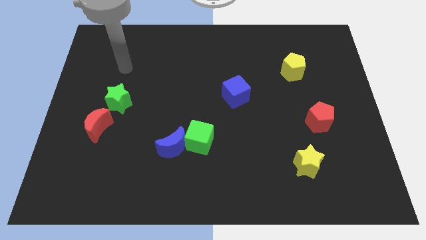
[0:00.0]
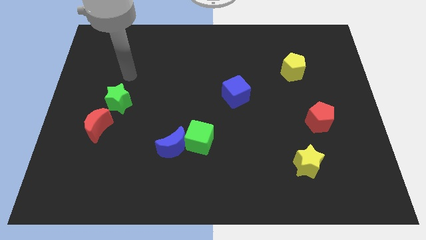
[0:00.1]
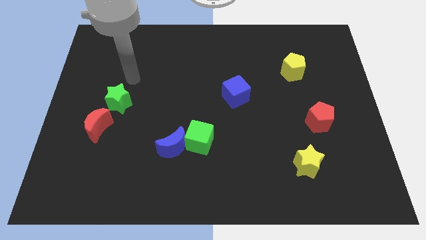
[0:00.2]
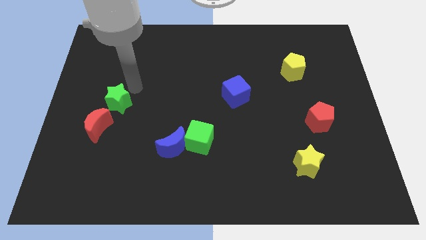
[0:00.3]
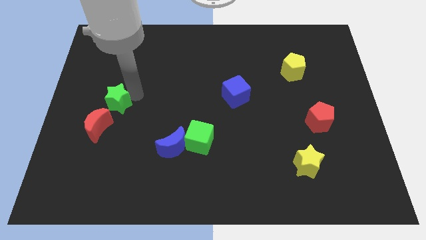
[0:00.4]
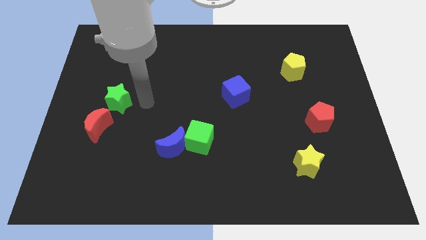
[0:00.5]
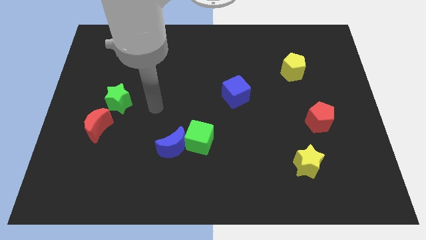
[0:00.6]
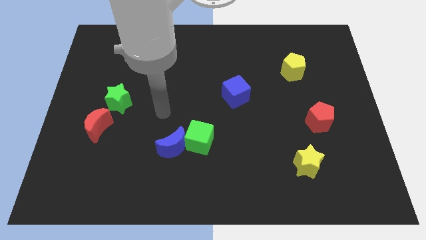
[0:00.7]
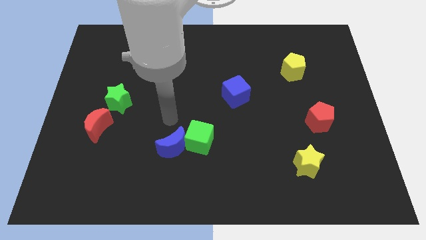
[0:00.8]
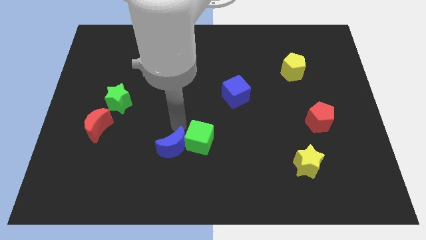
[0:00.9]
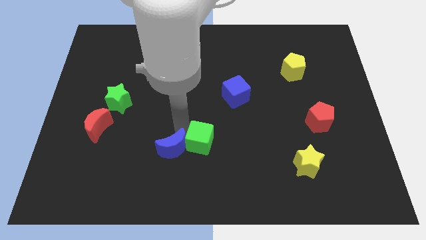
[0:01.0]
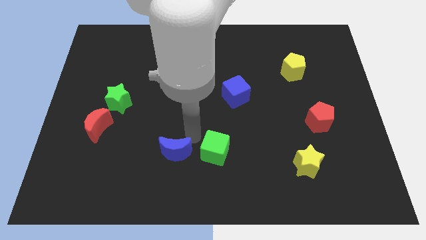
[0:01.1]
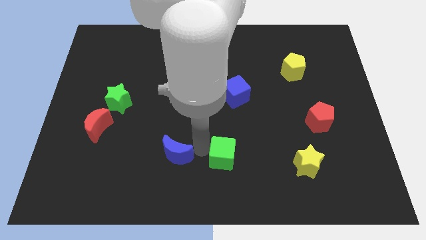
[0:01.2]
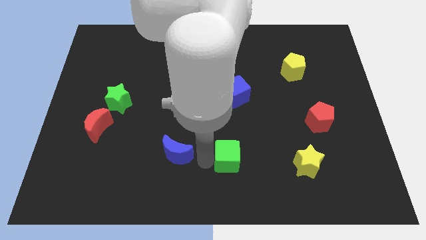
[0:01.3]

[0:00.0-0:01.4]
separate the blue moon from the green cube

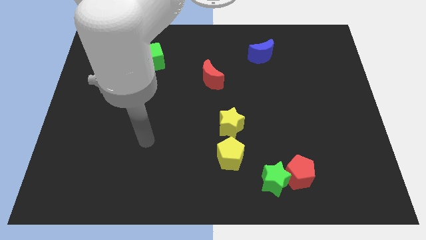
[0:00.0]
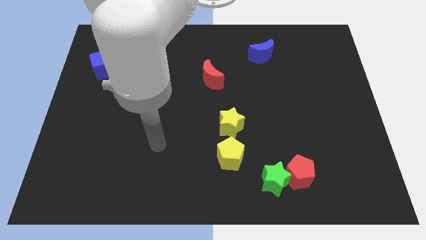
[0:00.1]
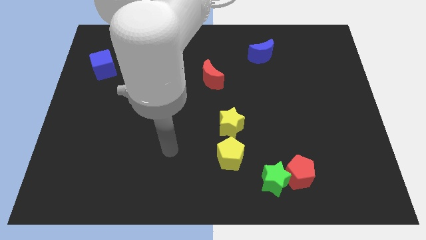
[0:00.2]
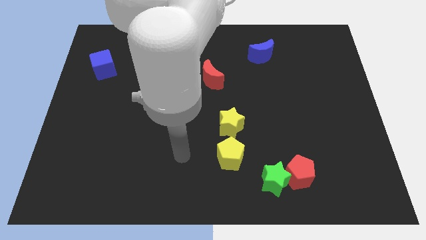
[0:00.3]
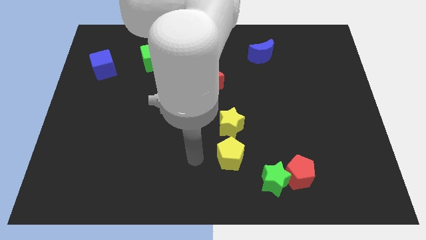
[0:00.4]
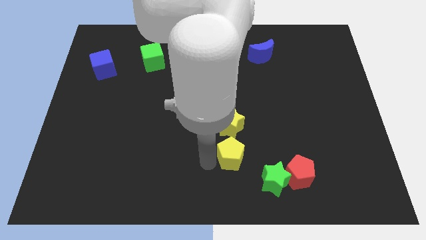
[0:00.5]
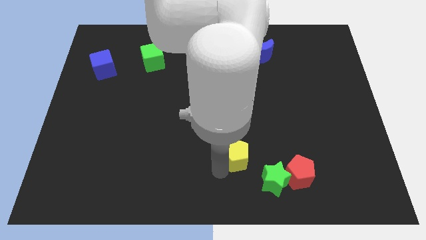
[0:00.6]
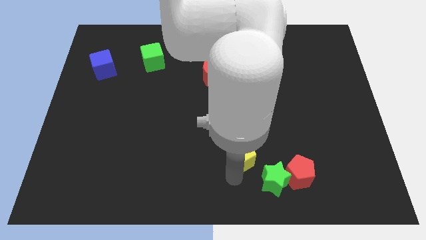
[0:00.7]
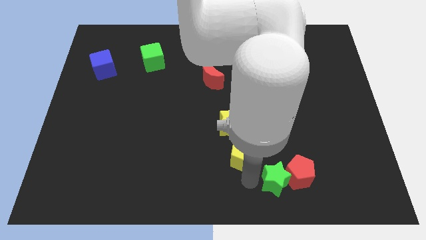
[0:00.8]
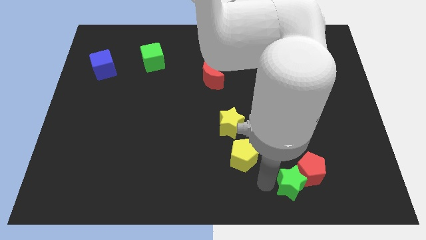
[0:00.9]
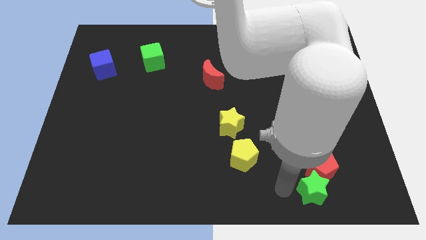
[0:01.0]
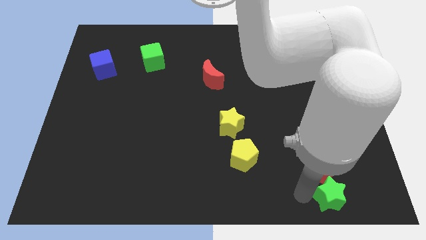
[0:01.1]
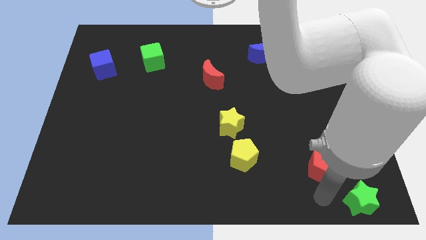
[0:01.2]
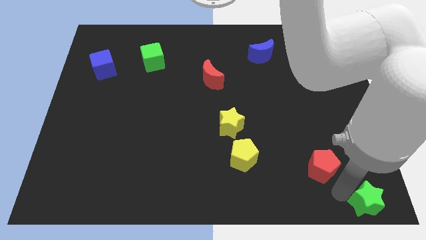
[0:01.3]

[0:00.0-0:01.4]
move the red pentagon away from the green star

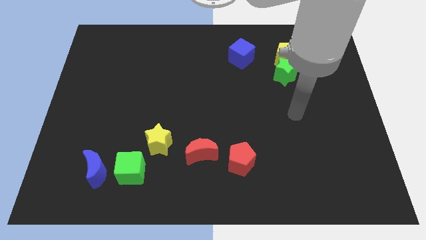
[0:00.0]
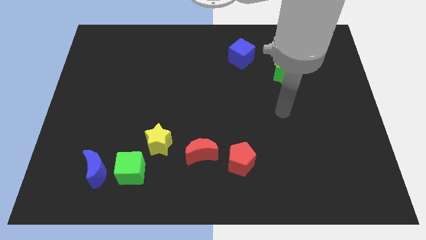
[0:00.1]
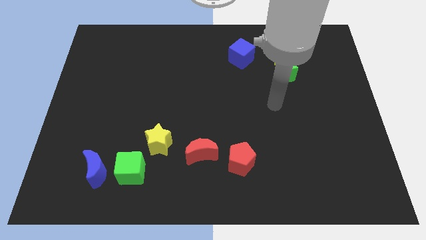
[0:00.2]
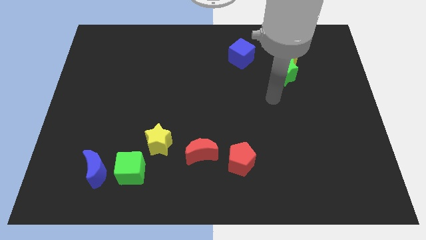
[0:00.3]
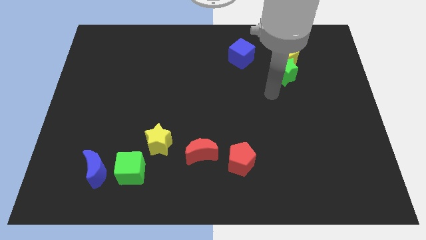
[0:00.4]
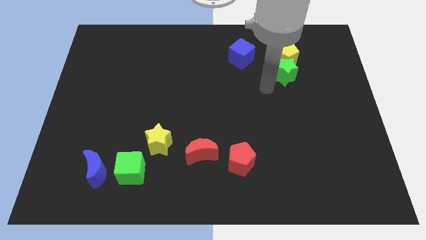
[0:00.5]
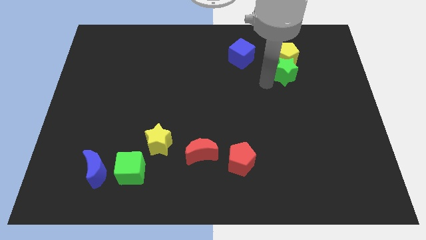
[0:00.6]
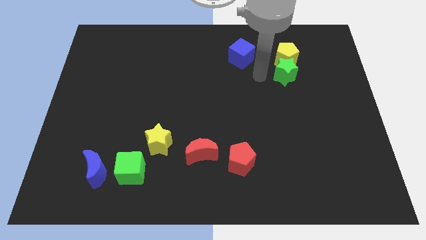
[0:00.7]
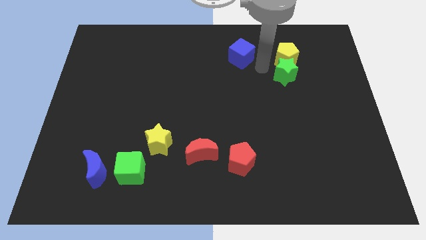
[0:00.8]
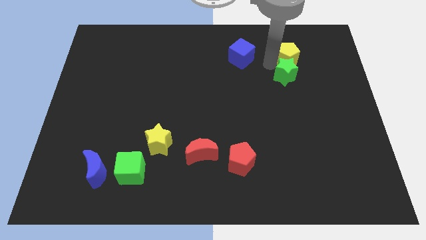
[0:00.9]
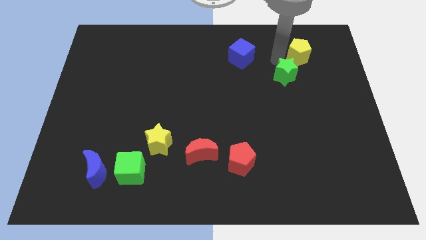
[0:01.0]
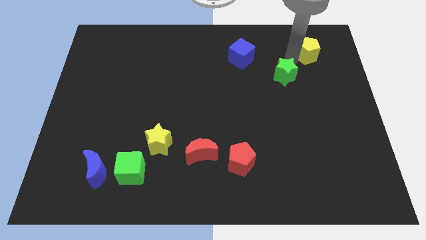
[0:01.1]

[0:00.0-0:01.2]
separate the green star from the yellow pentagon

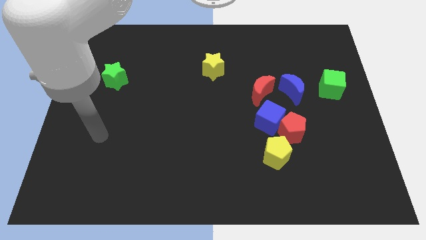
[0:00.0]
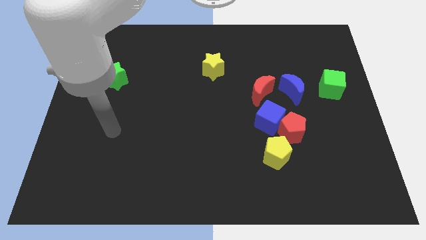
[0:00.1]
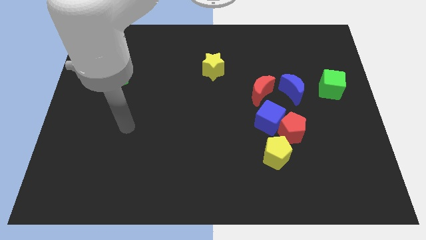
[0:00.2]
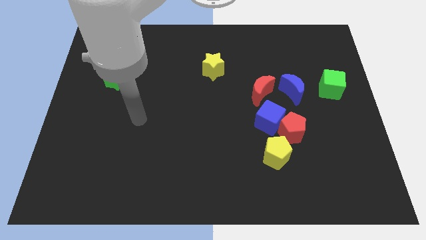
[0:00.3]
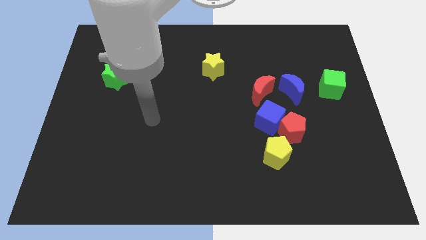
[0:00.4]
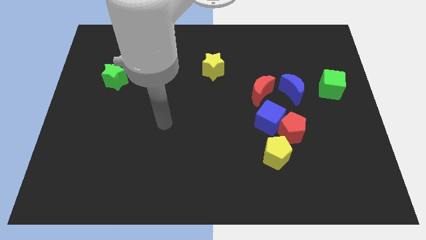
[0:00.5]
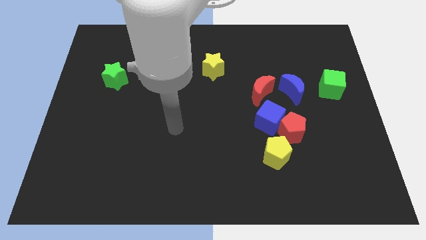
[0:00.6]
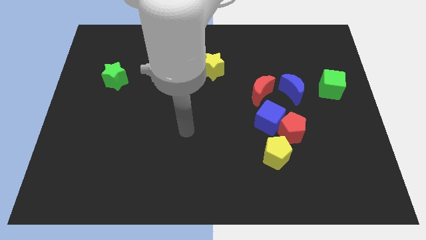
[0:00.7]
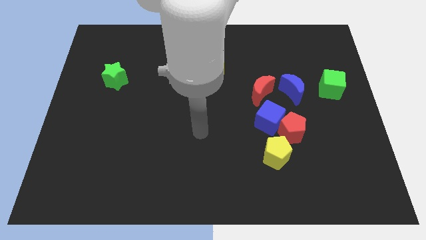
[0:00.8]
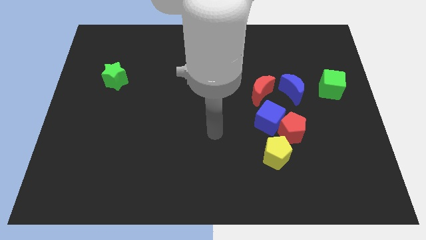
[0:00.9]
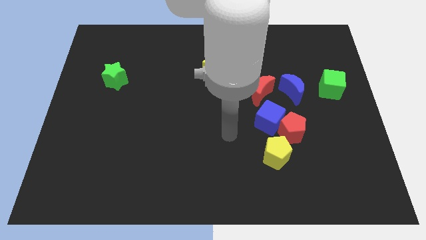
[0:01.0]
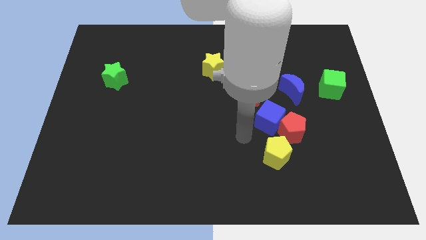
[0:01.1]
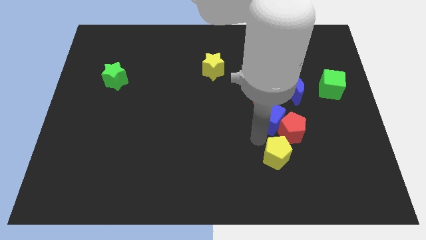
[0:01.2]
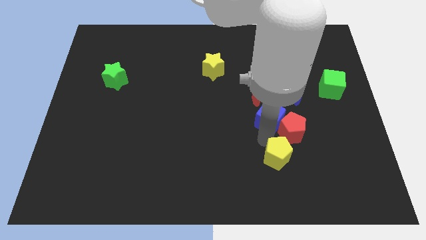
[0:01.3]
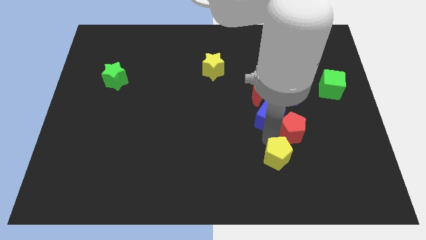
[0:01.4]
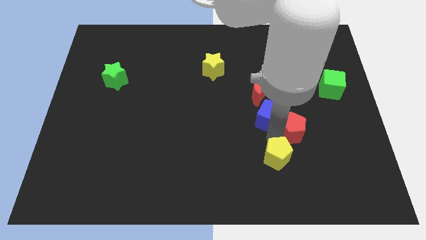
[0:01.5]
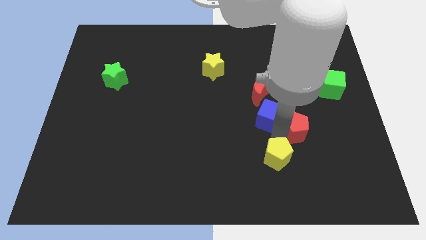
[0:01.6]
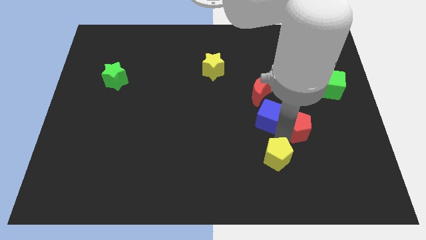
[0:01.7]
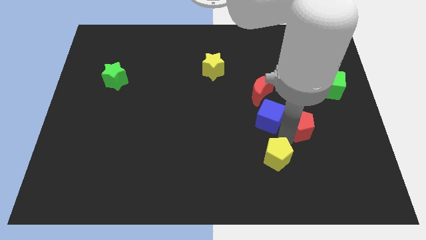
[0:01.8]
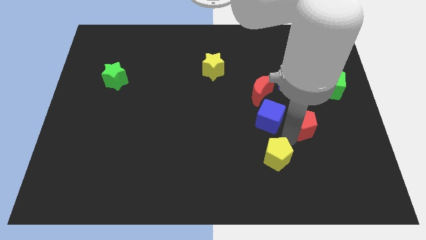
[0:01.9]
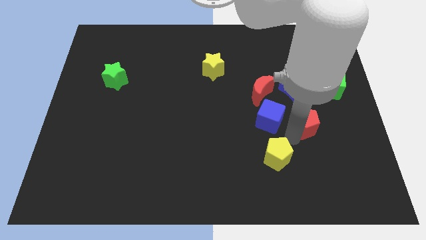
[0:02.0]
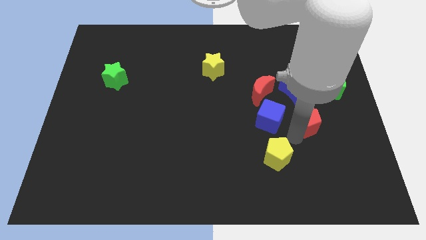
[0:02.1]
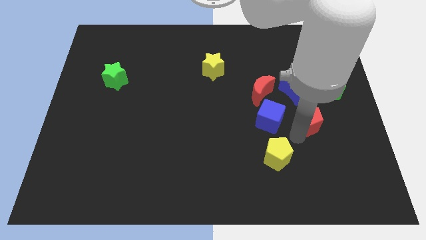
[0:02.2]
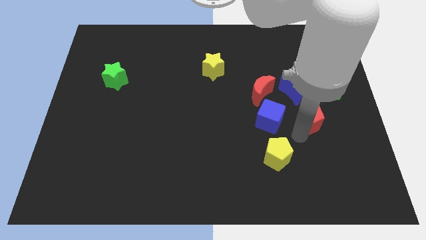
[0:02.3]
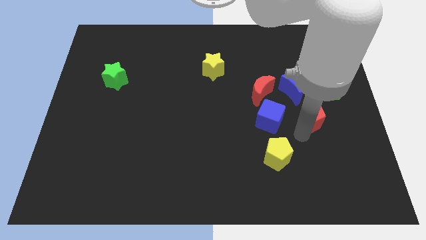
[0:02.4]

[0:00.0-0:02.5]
pull the red pentagon apart from the blue cube and yellow pentagon

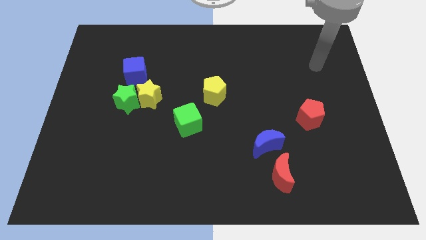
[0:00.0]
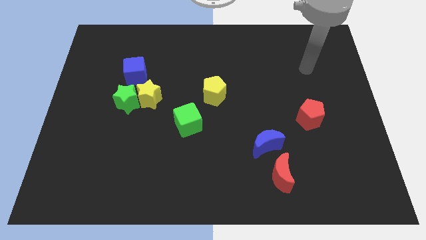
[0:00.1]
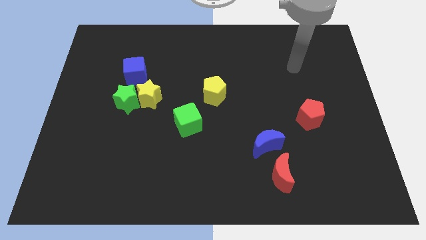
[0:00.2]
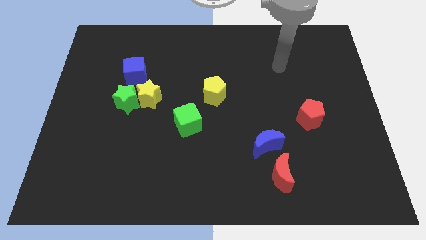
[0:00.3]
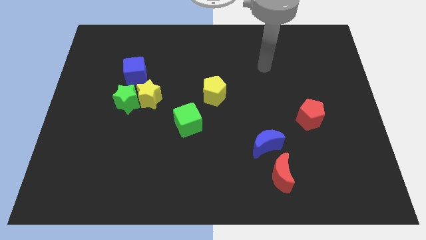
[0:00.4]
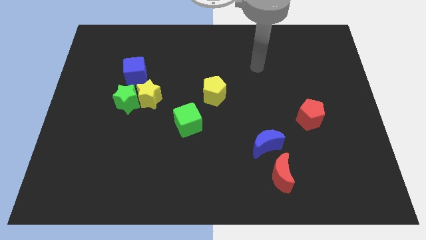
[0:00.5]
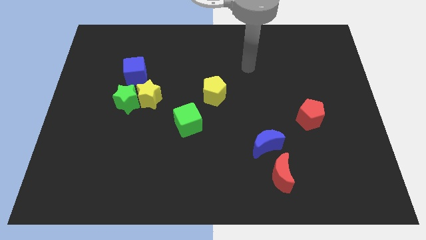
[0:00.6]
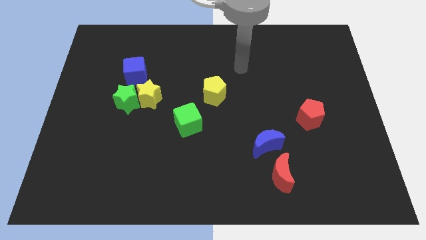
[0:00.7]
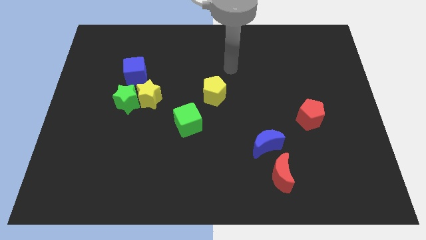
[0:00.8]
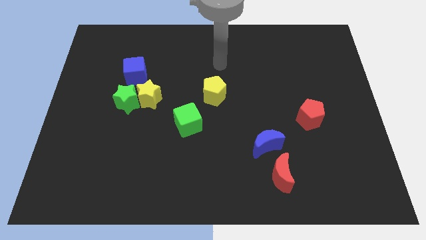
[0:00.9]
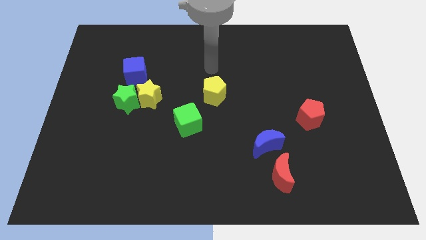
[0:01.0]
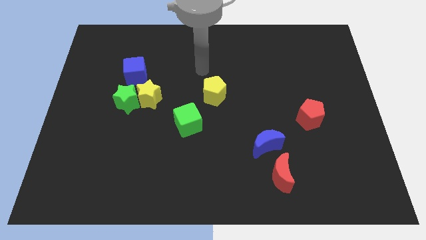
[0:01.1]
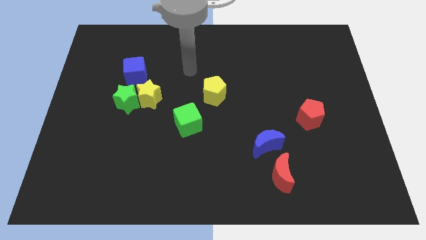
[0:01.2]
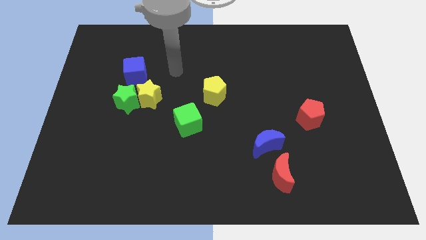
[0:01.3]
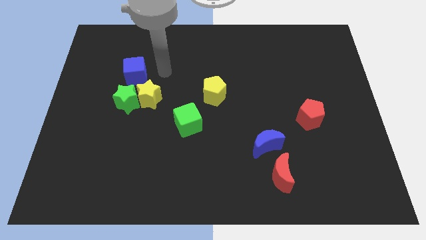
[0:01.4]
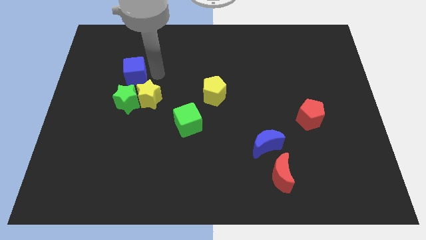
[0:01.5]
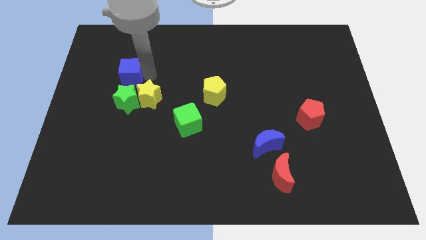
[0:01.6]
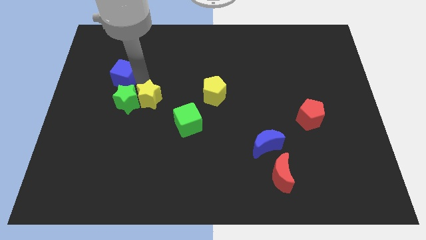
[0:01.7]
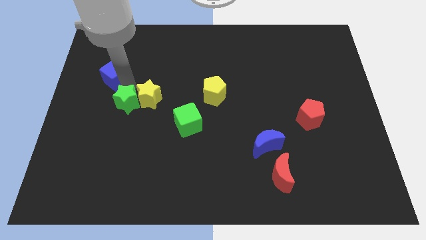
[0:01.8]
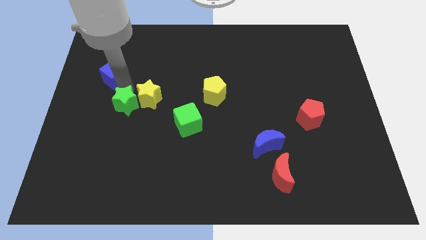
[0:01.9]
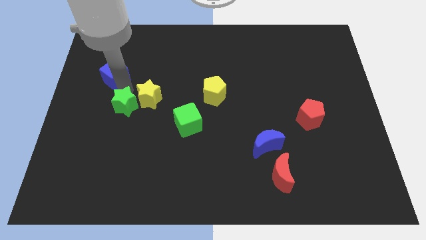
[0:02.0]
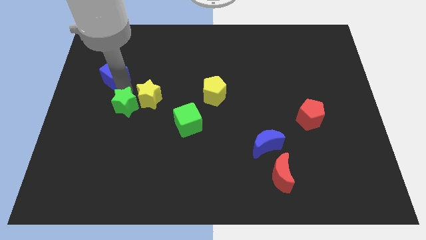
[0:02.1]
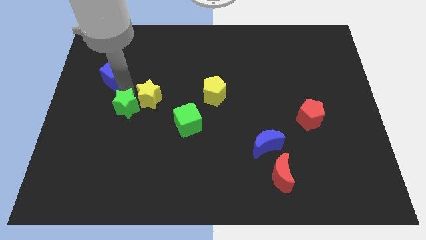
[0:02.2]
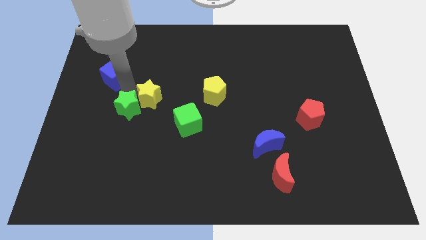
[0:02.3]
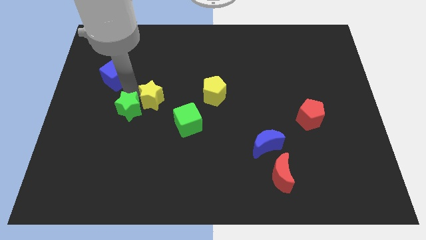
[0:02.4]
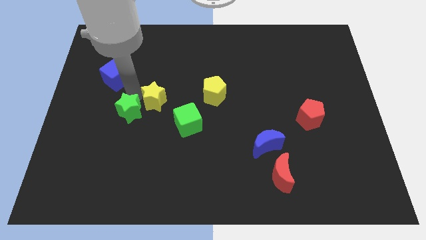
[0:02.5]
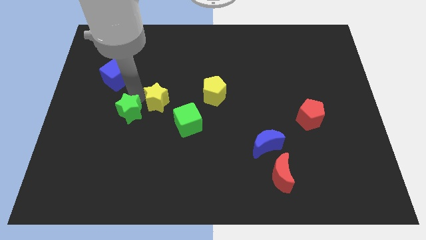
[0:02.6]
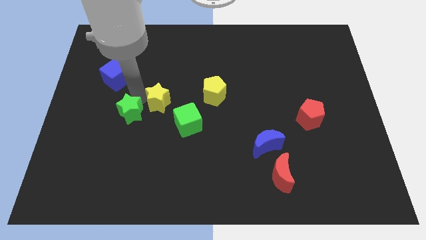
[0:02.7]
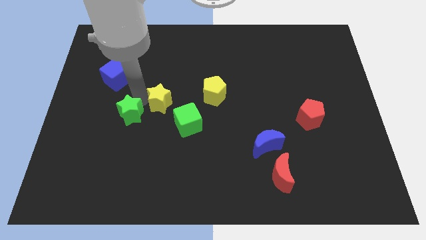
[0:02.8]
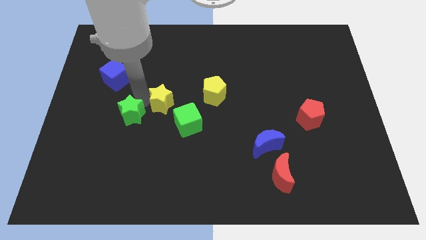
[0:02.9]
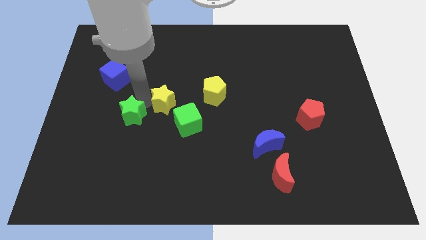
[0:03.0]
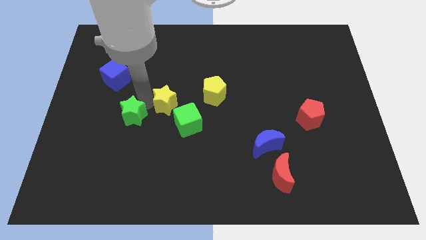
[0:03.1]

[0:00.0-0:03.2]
move the yellow star away from the green star and blue cube
